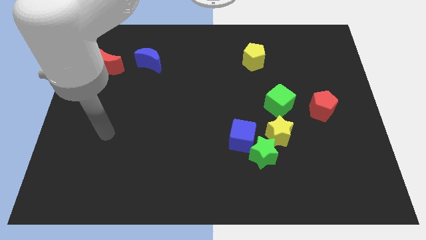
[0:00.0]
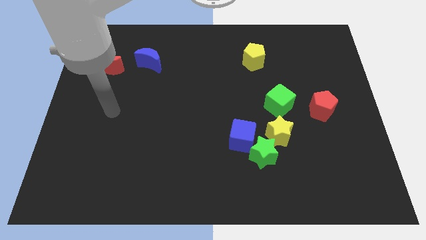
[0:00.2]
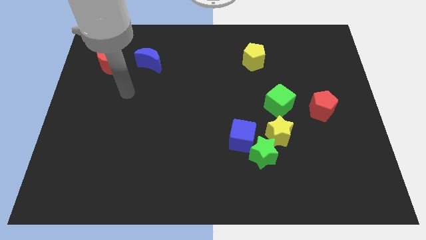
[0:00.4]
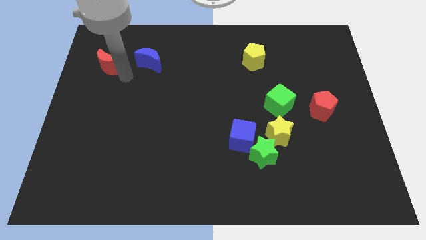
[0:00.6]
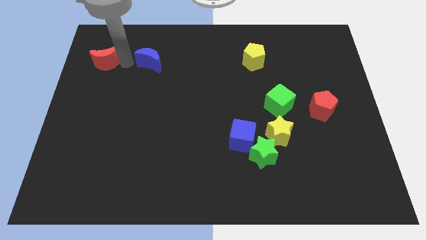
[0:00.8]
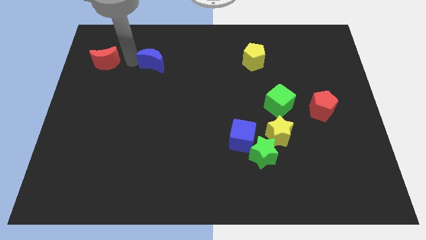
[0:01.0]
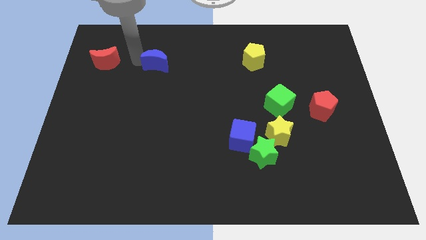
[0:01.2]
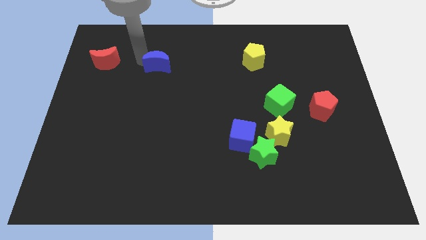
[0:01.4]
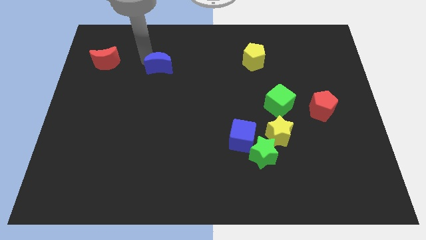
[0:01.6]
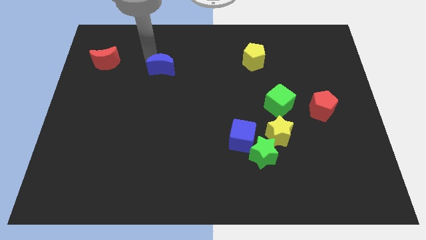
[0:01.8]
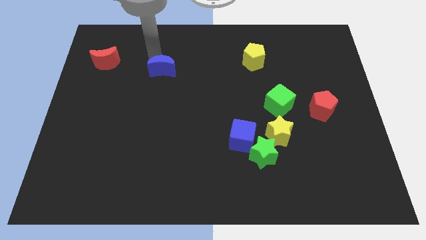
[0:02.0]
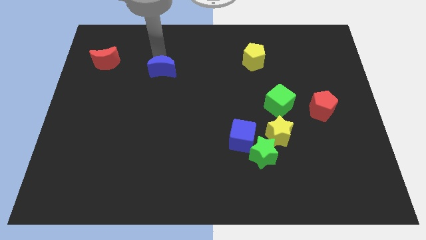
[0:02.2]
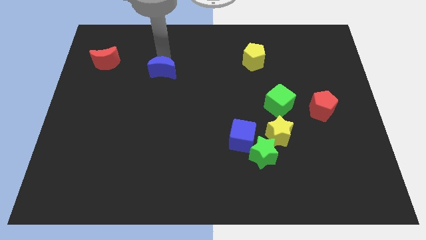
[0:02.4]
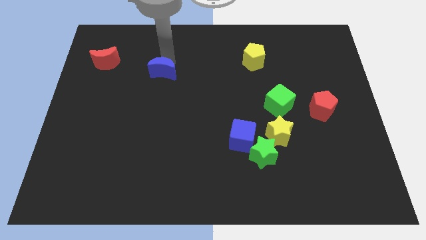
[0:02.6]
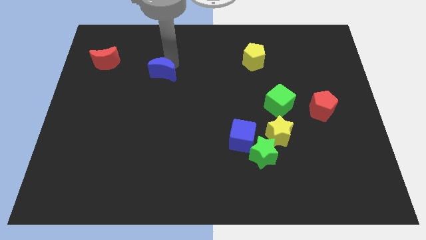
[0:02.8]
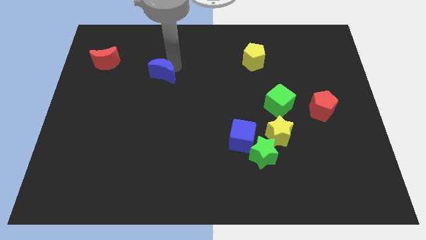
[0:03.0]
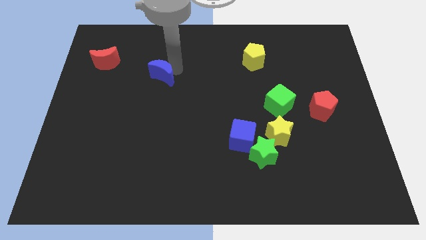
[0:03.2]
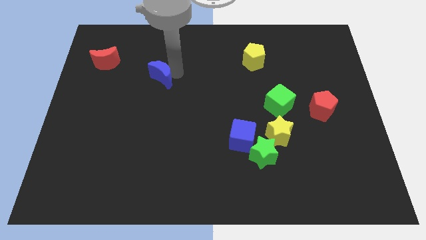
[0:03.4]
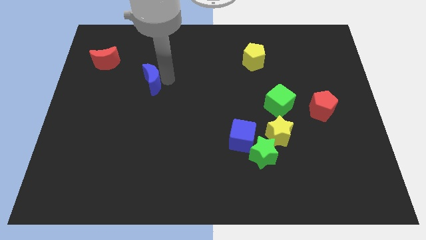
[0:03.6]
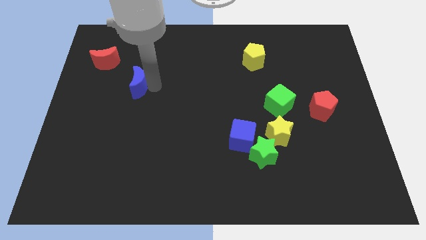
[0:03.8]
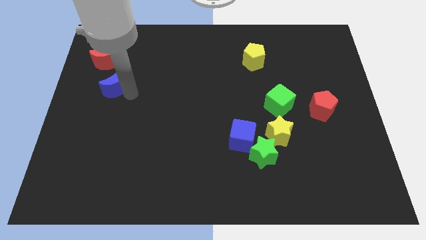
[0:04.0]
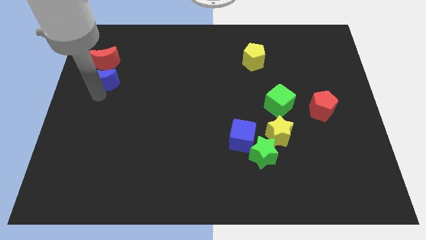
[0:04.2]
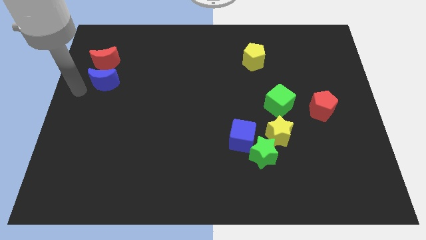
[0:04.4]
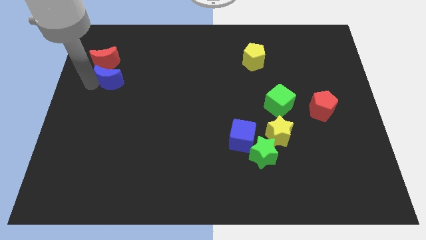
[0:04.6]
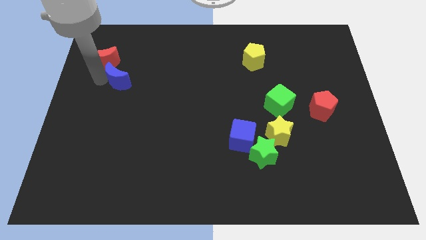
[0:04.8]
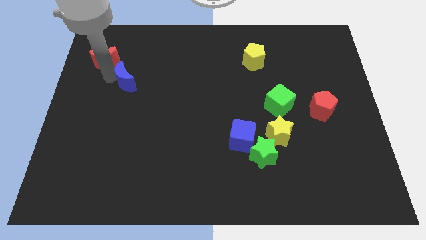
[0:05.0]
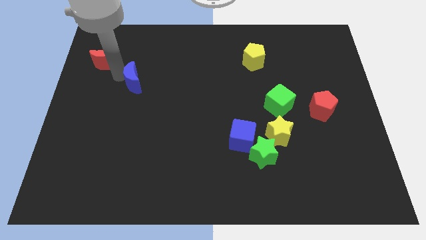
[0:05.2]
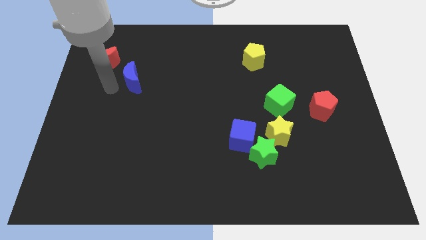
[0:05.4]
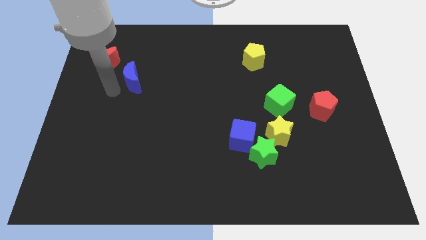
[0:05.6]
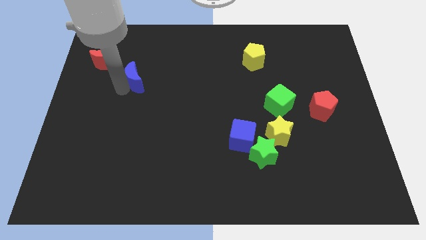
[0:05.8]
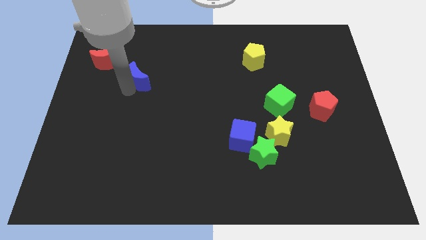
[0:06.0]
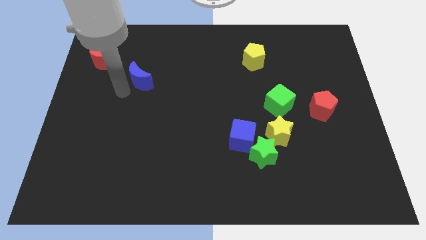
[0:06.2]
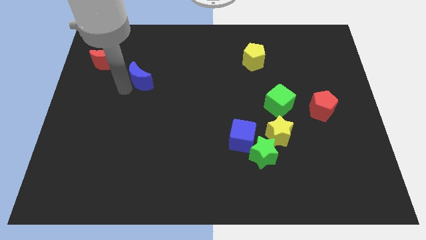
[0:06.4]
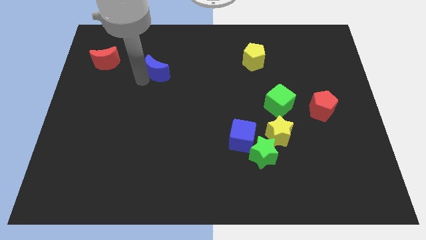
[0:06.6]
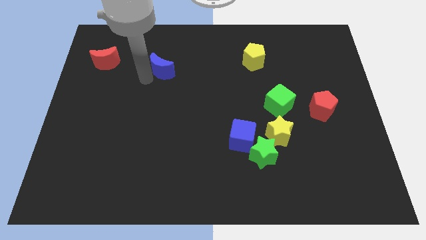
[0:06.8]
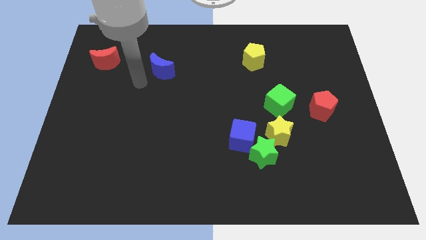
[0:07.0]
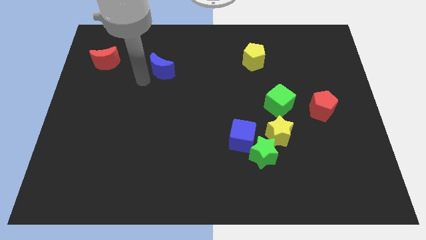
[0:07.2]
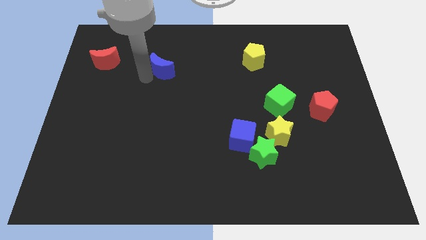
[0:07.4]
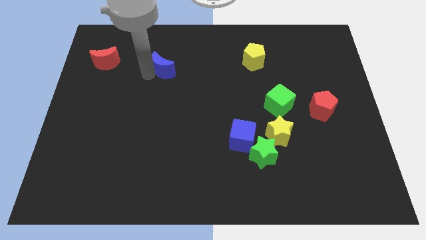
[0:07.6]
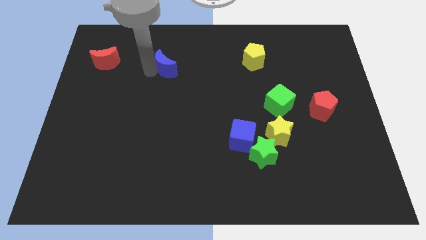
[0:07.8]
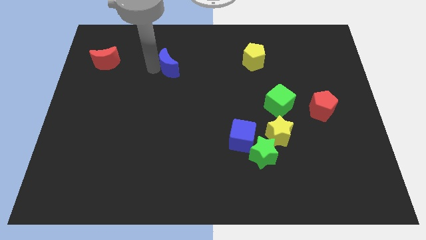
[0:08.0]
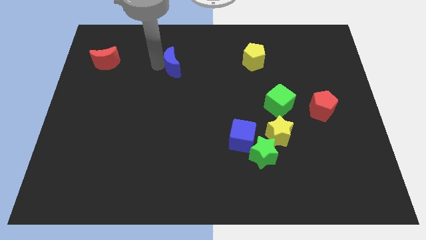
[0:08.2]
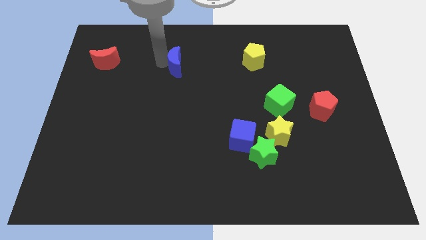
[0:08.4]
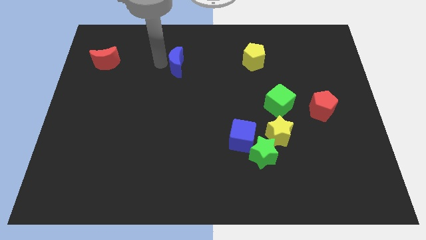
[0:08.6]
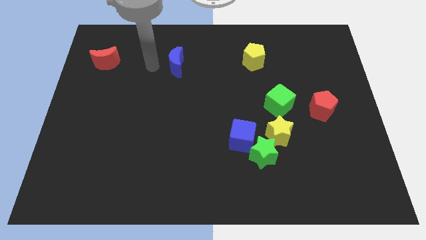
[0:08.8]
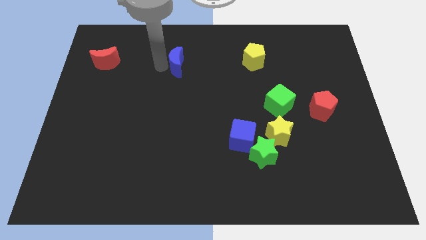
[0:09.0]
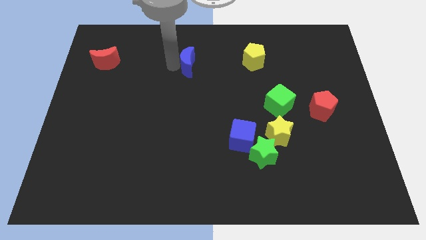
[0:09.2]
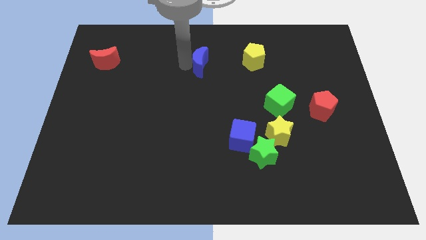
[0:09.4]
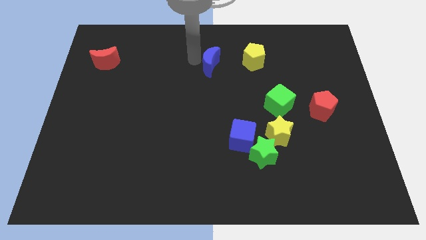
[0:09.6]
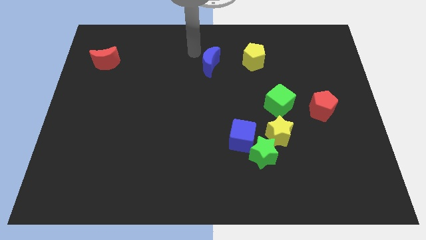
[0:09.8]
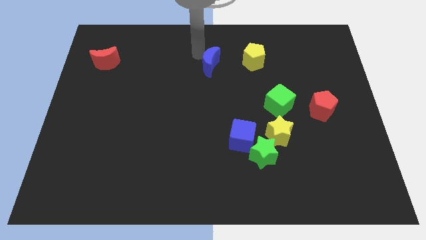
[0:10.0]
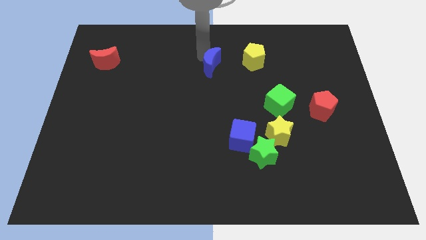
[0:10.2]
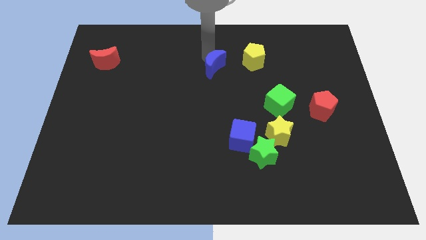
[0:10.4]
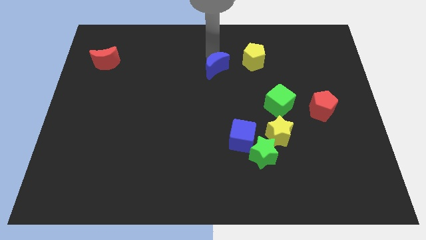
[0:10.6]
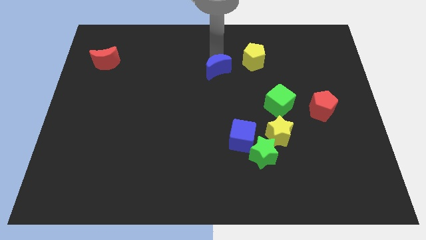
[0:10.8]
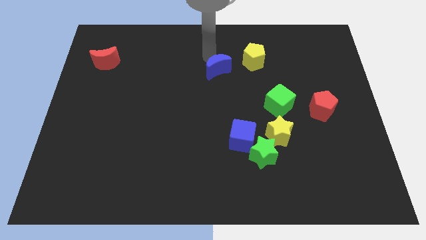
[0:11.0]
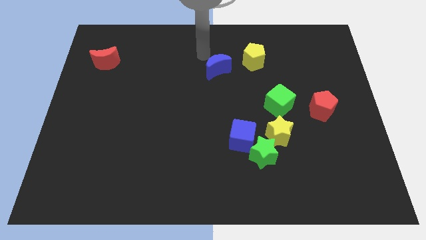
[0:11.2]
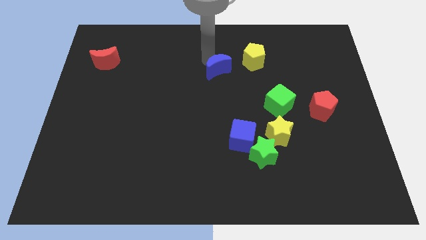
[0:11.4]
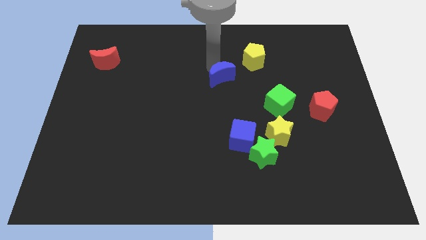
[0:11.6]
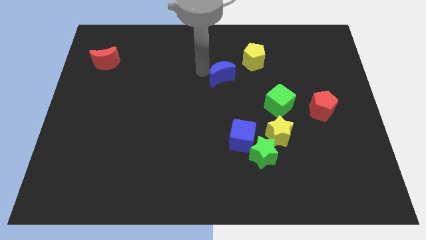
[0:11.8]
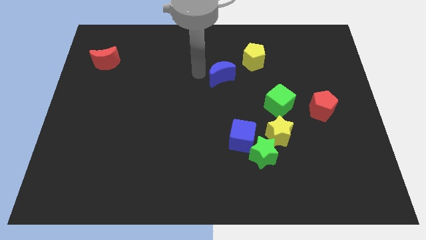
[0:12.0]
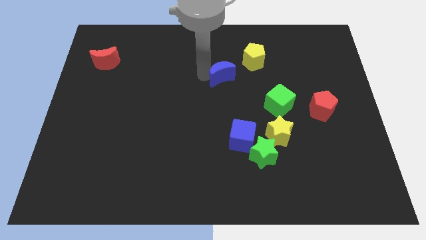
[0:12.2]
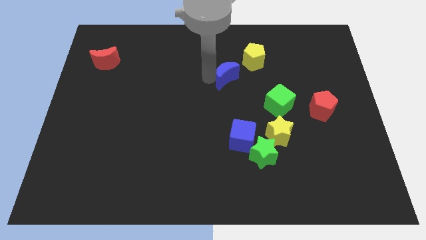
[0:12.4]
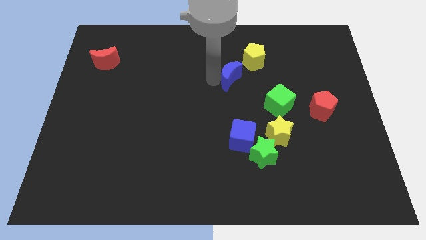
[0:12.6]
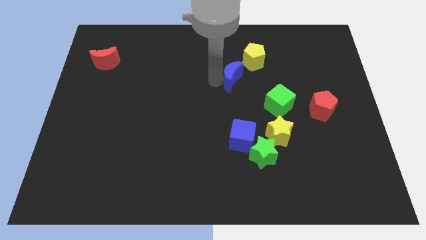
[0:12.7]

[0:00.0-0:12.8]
push the blue moon right

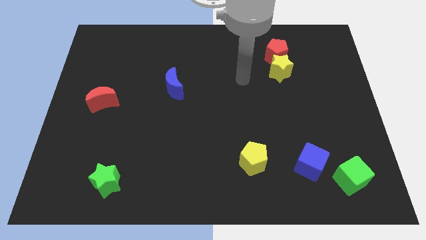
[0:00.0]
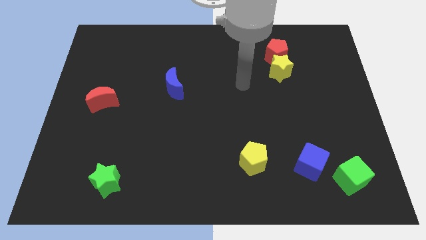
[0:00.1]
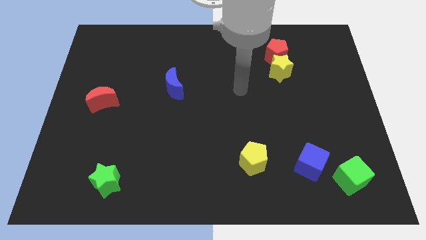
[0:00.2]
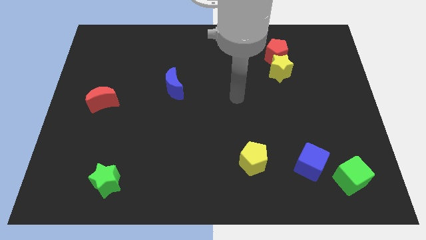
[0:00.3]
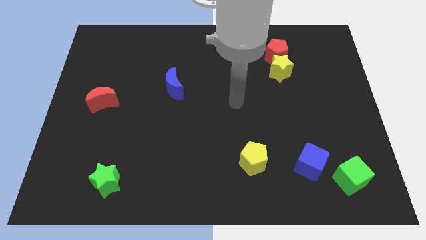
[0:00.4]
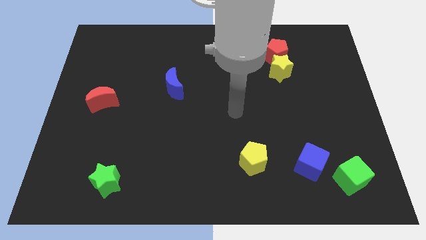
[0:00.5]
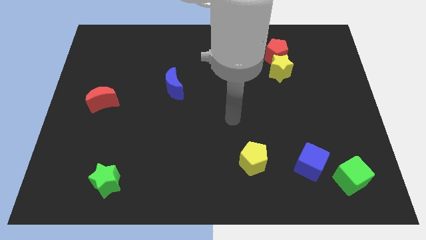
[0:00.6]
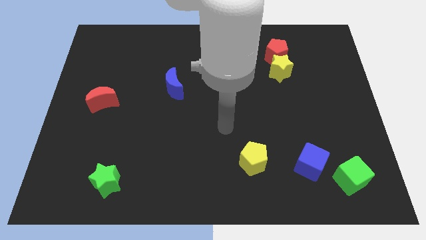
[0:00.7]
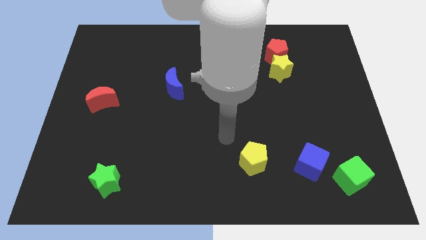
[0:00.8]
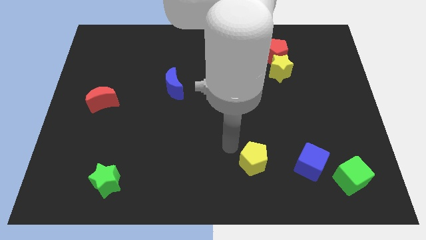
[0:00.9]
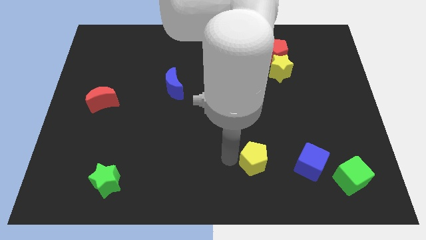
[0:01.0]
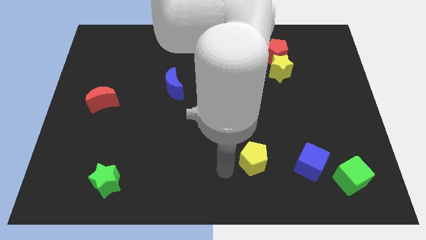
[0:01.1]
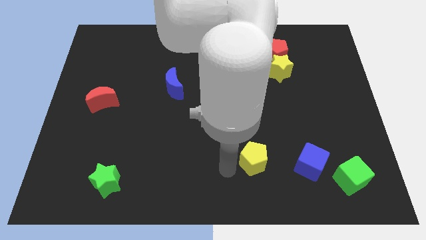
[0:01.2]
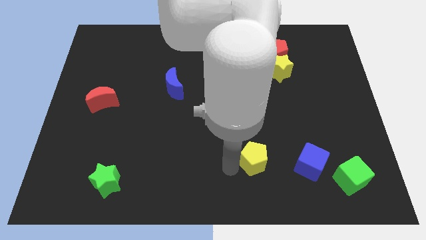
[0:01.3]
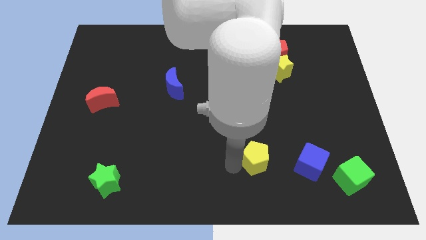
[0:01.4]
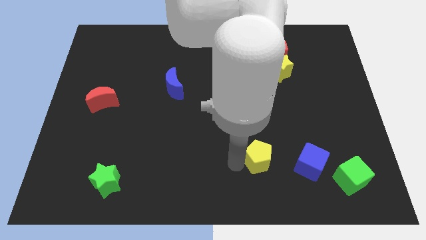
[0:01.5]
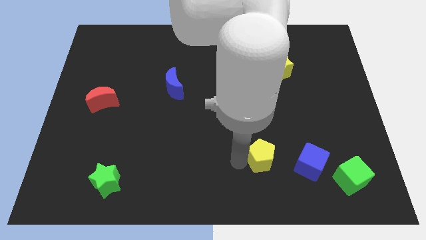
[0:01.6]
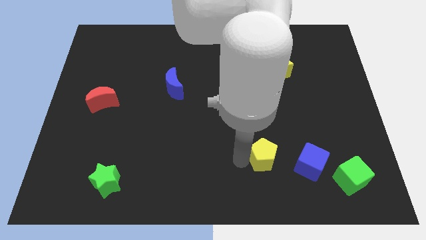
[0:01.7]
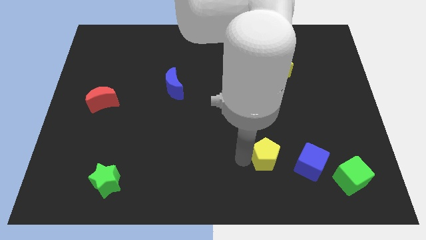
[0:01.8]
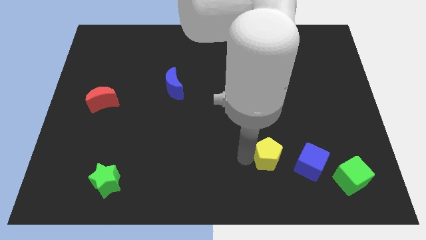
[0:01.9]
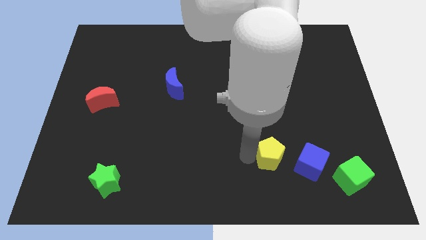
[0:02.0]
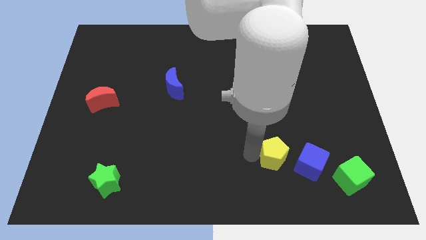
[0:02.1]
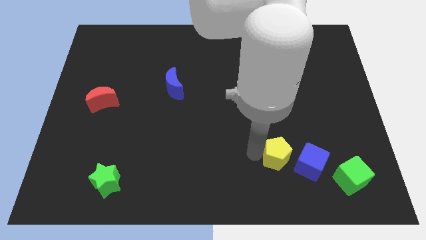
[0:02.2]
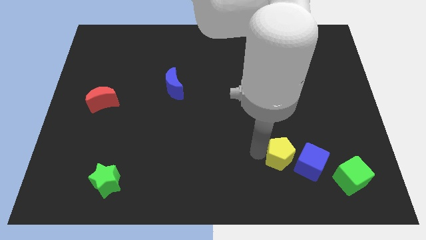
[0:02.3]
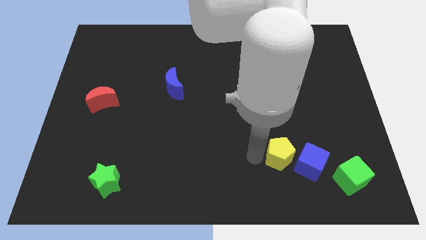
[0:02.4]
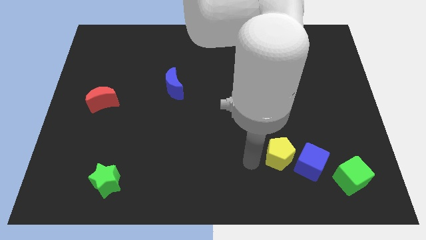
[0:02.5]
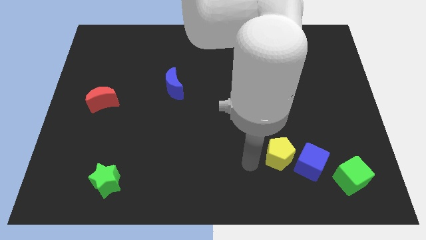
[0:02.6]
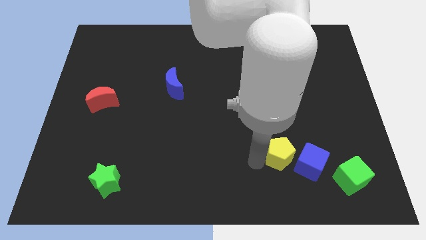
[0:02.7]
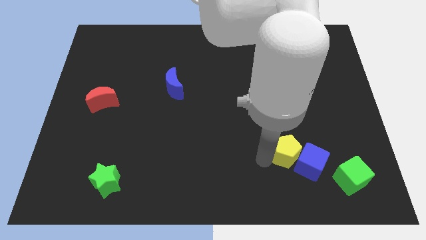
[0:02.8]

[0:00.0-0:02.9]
slightly push the yellow pentagon to the right
